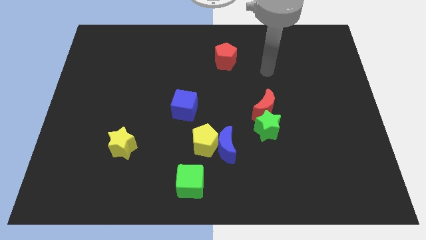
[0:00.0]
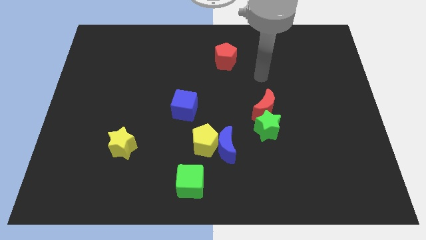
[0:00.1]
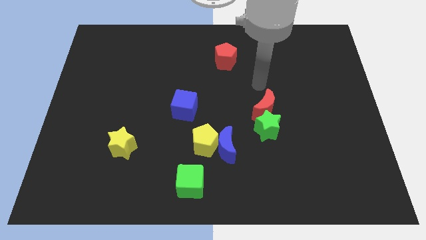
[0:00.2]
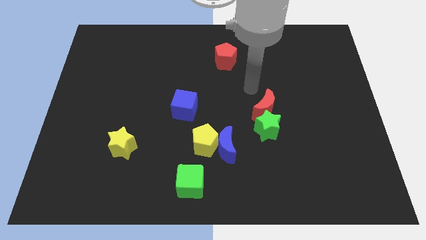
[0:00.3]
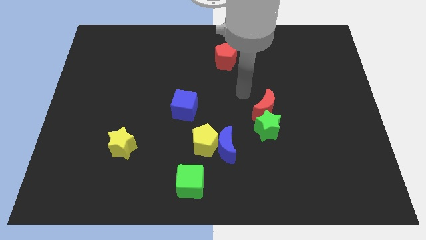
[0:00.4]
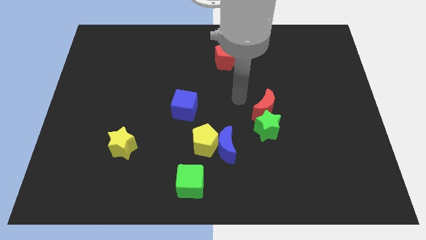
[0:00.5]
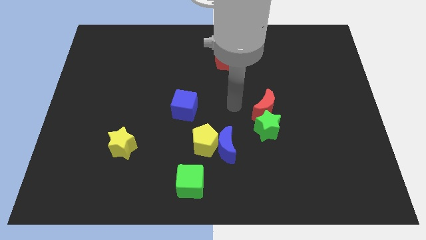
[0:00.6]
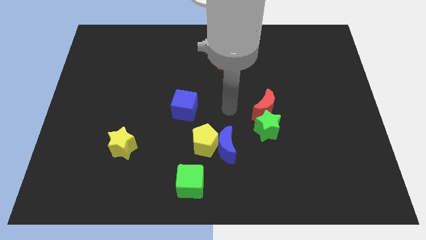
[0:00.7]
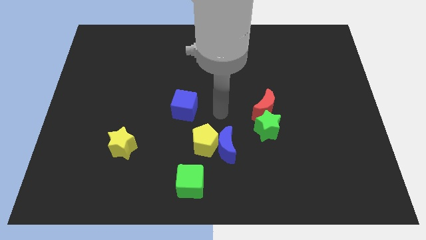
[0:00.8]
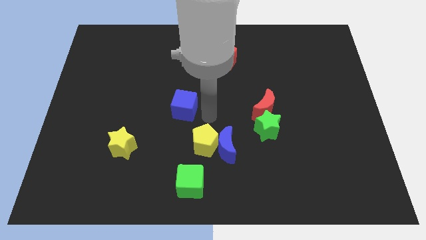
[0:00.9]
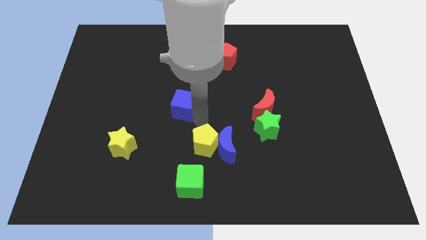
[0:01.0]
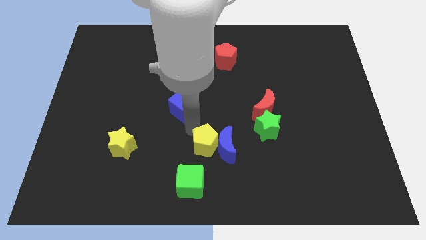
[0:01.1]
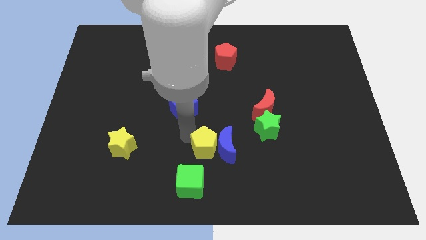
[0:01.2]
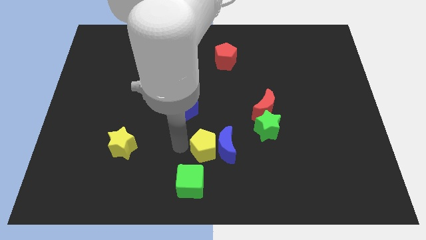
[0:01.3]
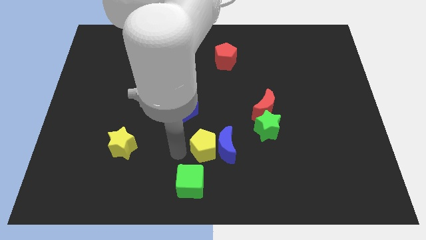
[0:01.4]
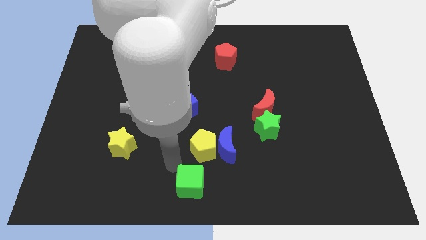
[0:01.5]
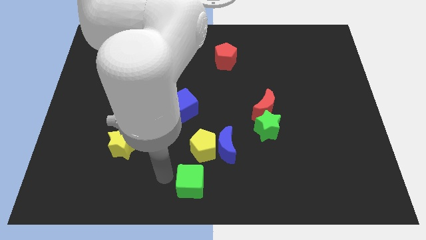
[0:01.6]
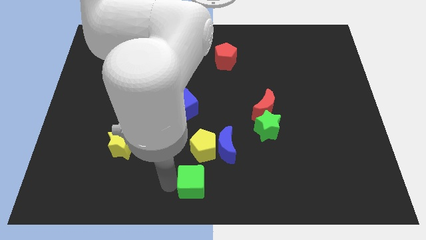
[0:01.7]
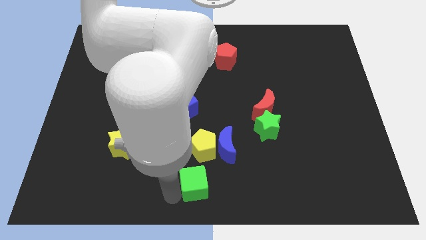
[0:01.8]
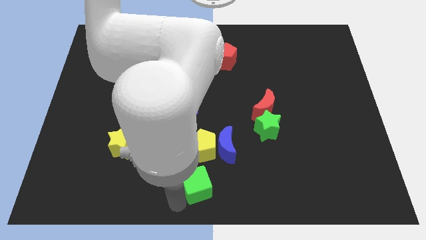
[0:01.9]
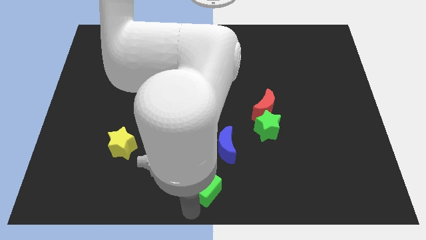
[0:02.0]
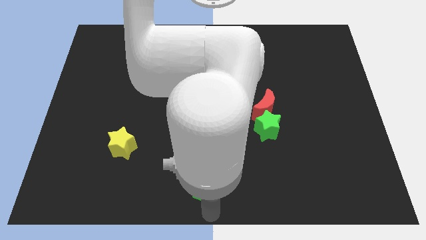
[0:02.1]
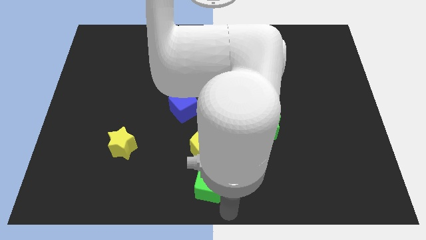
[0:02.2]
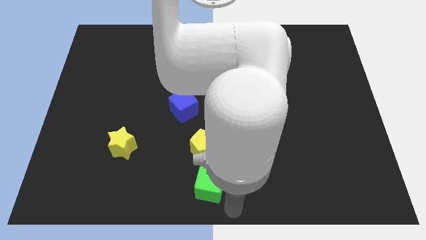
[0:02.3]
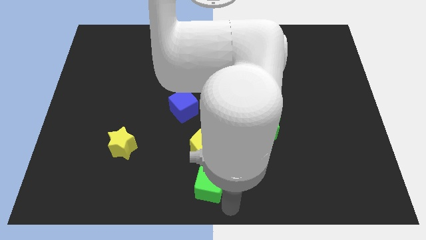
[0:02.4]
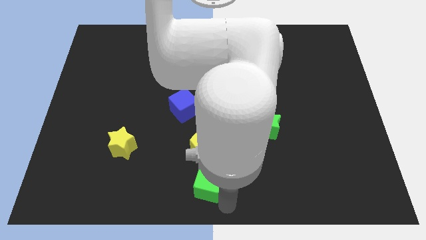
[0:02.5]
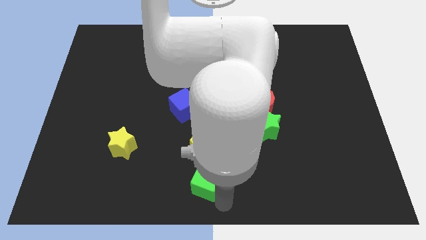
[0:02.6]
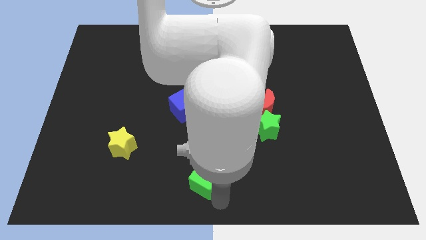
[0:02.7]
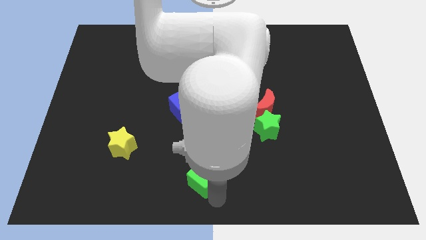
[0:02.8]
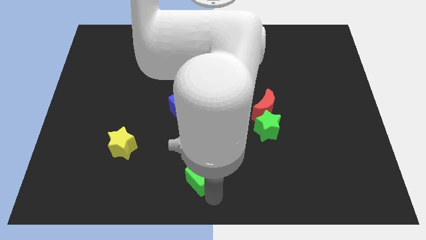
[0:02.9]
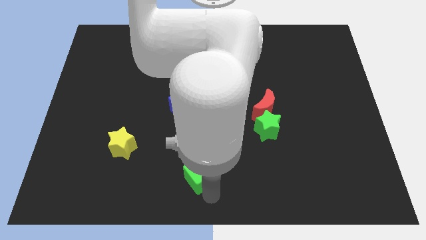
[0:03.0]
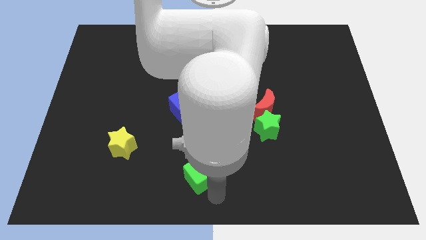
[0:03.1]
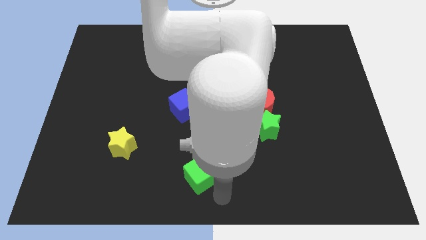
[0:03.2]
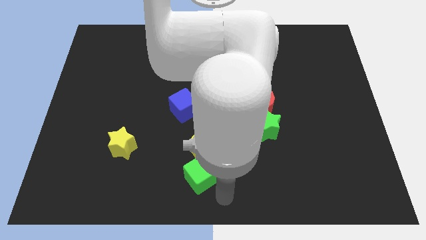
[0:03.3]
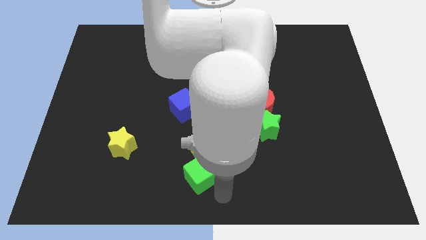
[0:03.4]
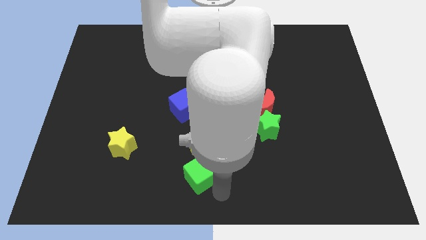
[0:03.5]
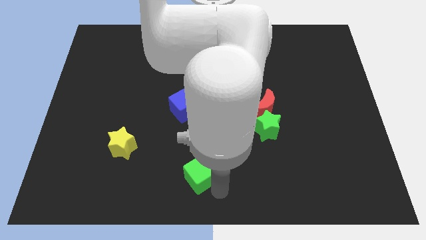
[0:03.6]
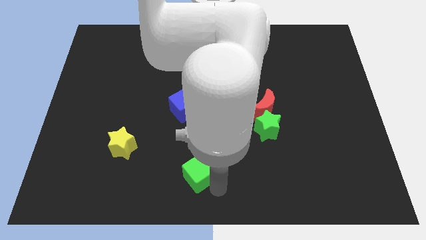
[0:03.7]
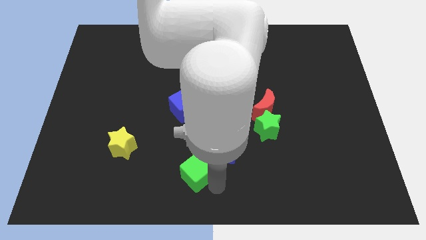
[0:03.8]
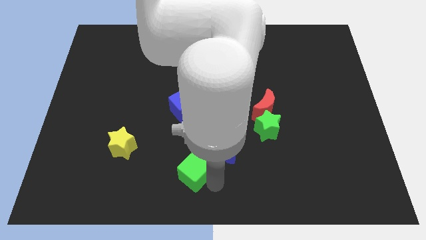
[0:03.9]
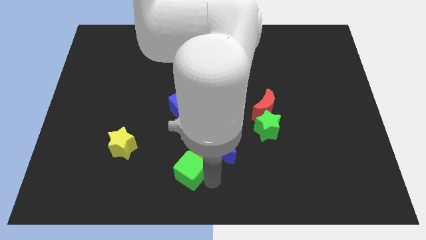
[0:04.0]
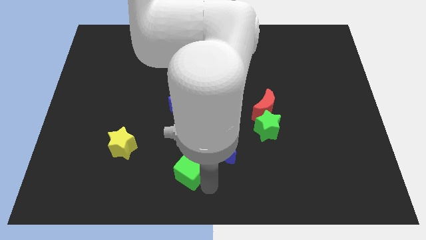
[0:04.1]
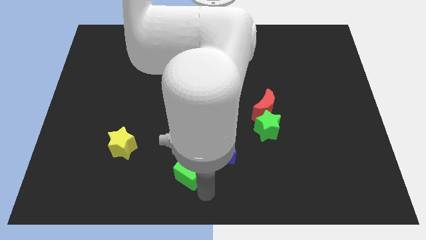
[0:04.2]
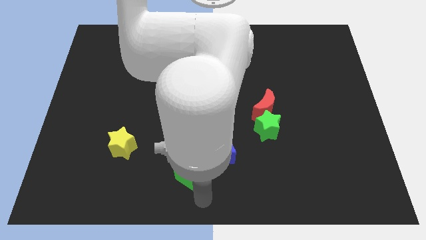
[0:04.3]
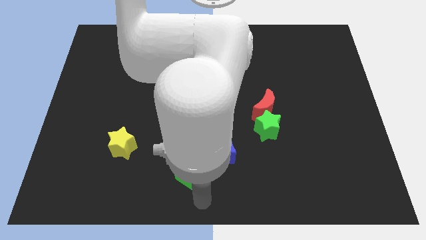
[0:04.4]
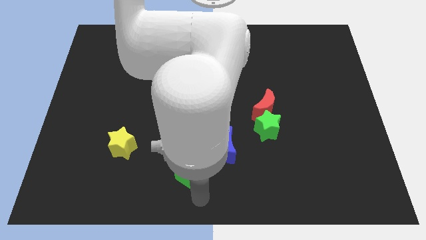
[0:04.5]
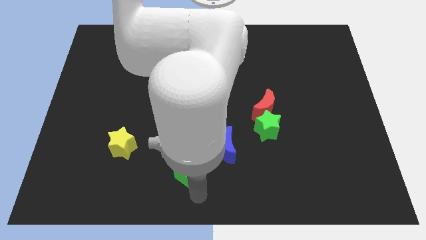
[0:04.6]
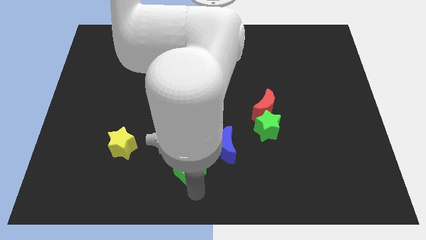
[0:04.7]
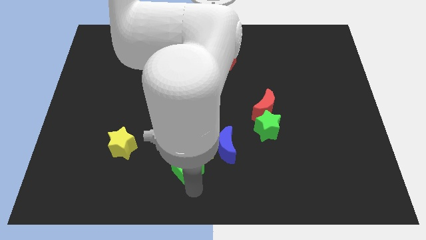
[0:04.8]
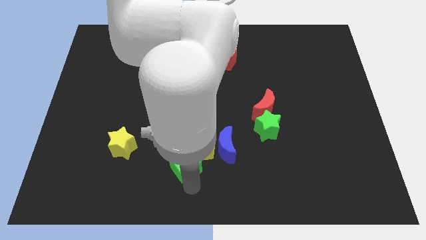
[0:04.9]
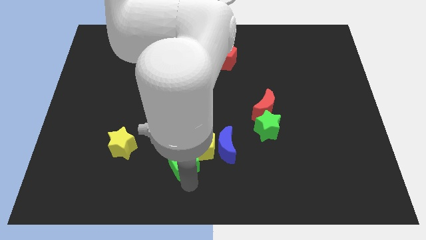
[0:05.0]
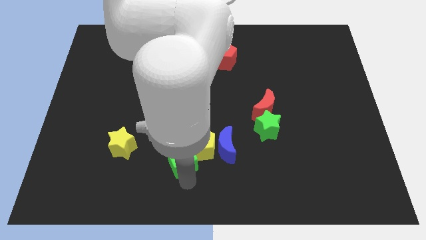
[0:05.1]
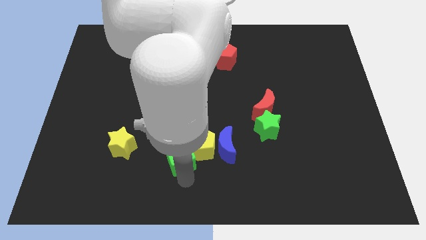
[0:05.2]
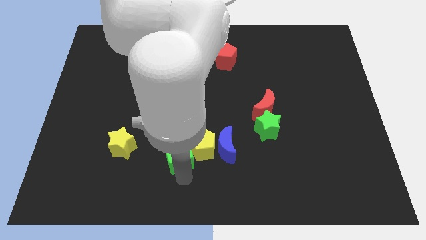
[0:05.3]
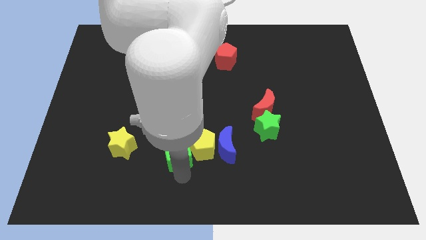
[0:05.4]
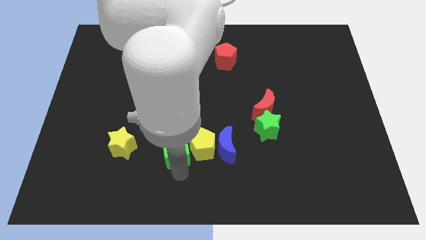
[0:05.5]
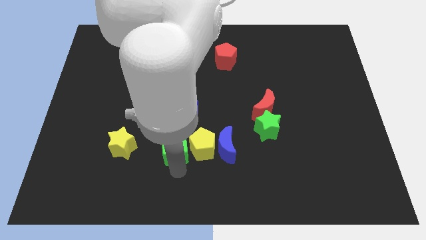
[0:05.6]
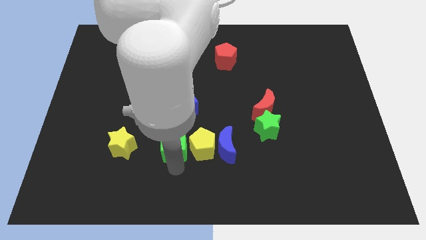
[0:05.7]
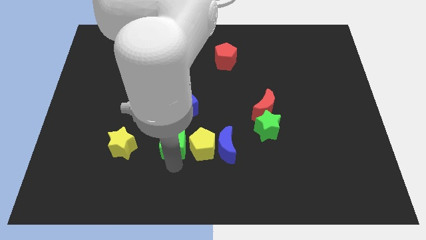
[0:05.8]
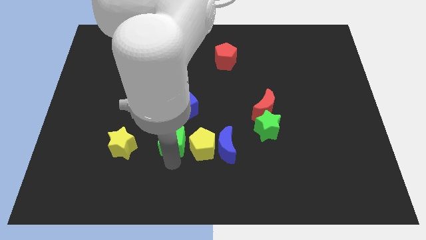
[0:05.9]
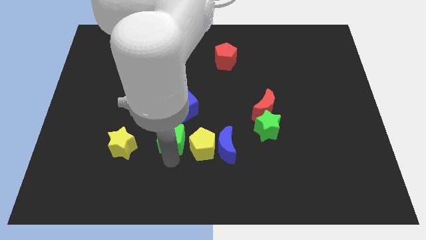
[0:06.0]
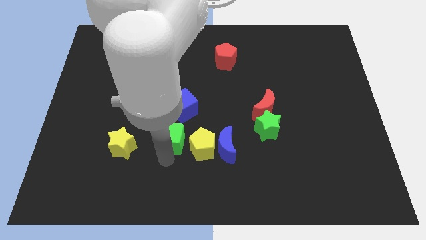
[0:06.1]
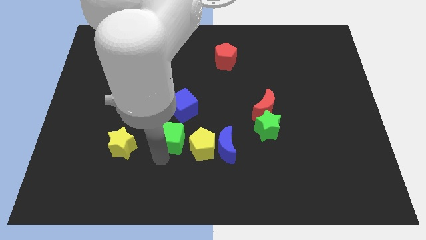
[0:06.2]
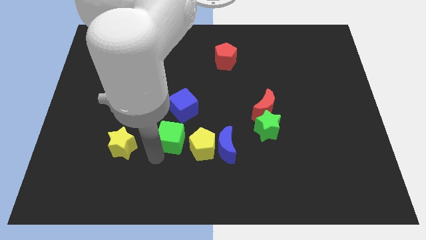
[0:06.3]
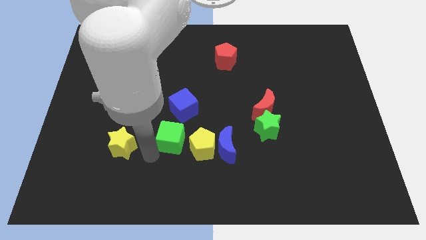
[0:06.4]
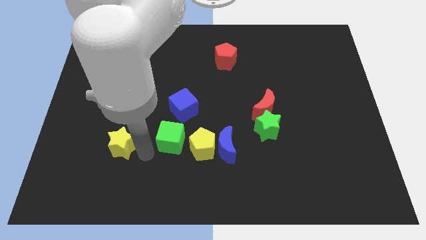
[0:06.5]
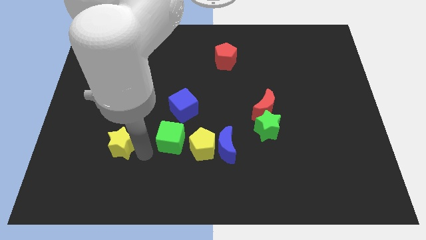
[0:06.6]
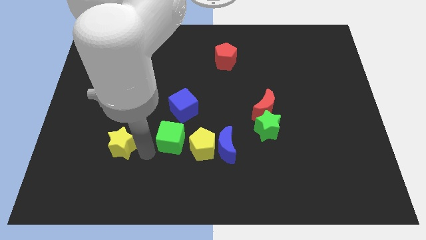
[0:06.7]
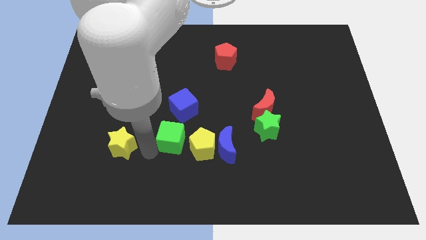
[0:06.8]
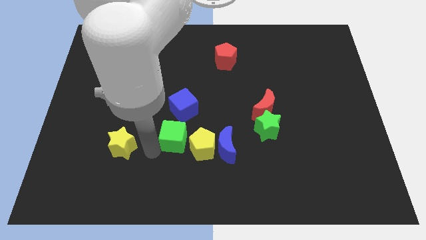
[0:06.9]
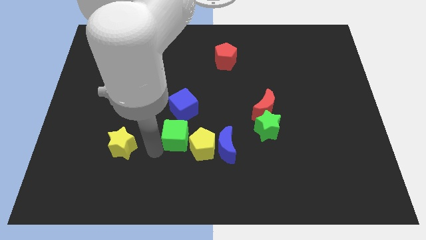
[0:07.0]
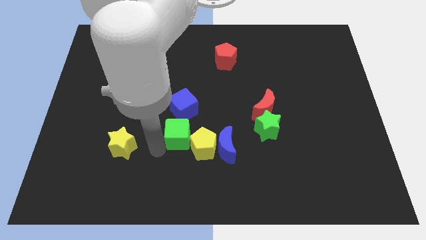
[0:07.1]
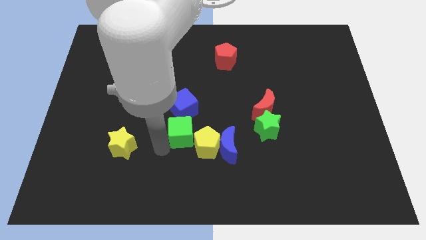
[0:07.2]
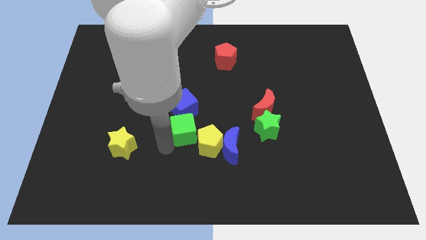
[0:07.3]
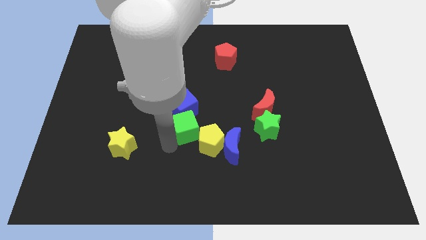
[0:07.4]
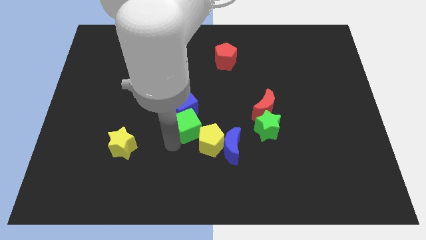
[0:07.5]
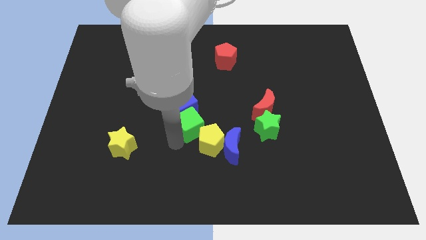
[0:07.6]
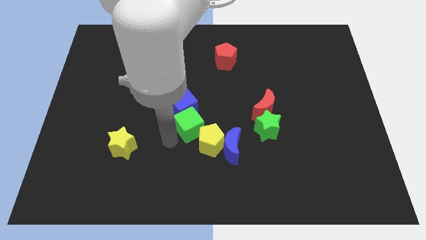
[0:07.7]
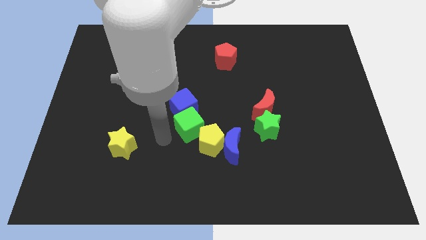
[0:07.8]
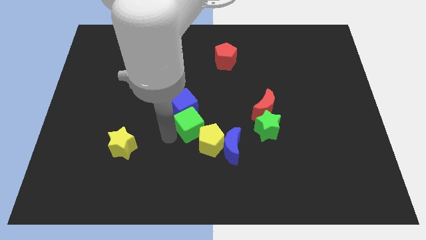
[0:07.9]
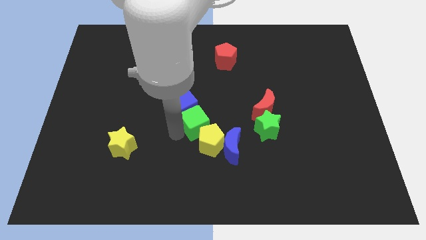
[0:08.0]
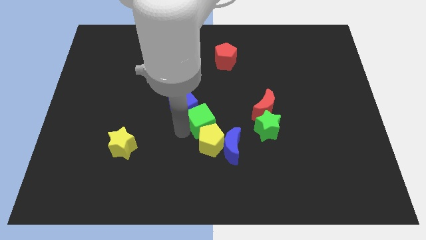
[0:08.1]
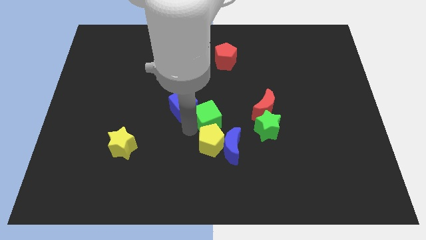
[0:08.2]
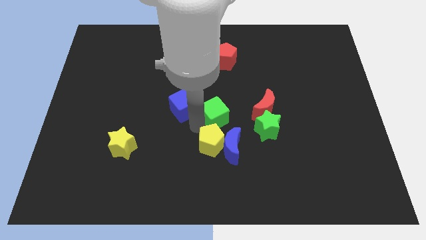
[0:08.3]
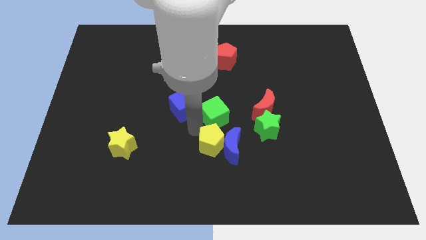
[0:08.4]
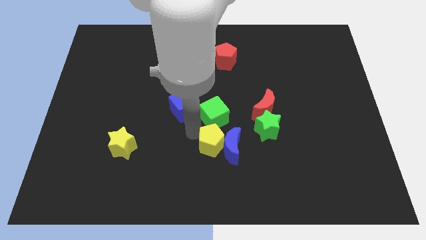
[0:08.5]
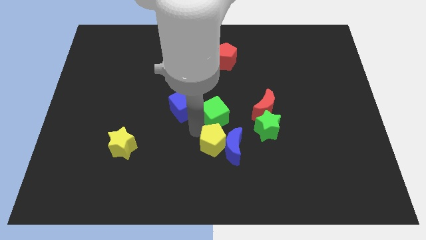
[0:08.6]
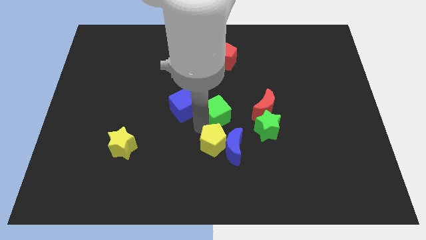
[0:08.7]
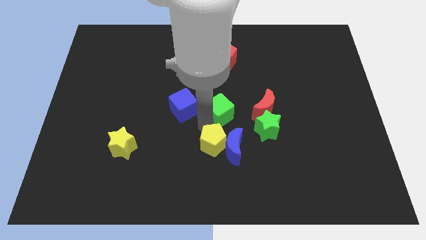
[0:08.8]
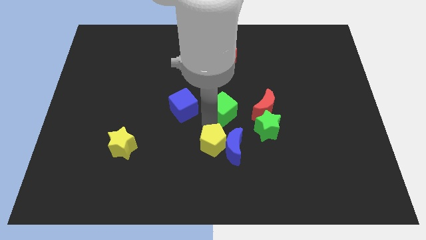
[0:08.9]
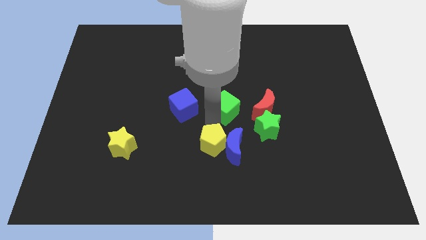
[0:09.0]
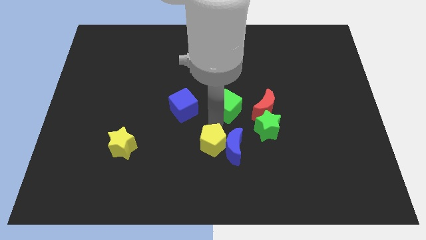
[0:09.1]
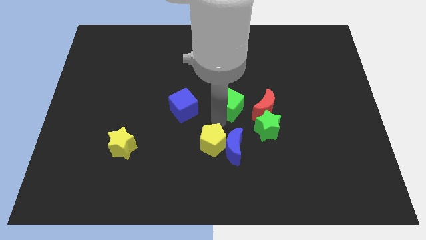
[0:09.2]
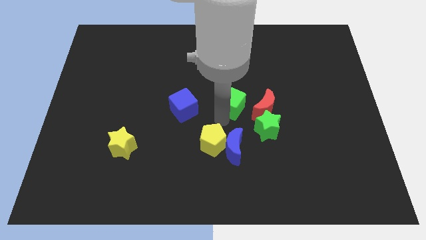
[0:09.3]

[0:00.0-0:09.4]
push the green cube to the top left side of the red moon
